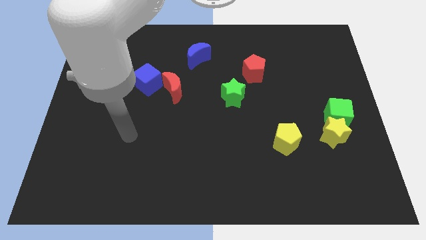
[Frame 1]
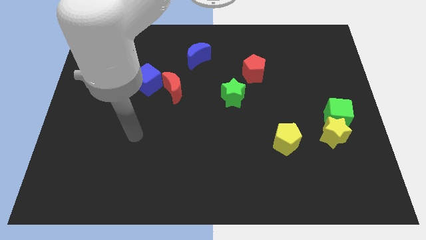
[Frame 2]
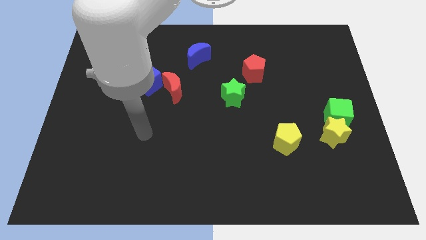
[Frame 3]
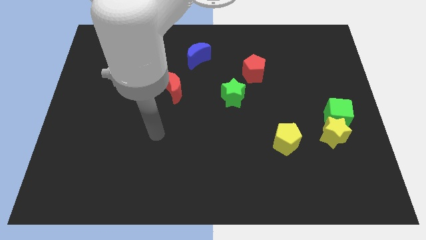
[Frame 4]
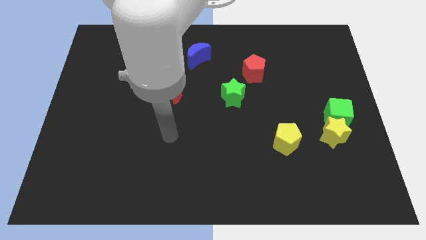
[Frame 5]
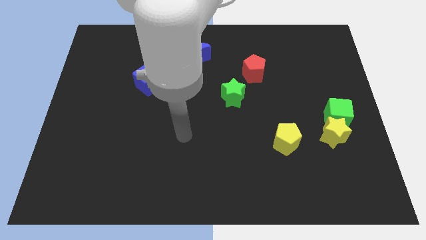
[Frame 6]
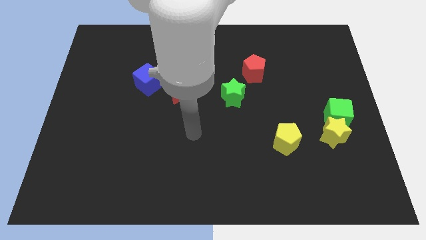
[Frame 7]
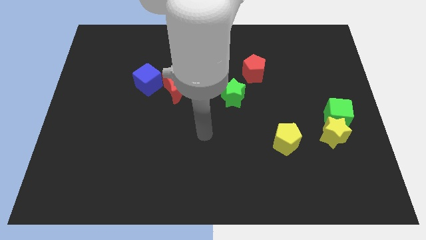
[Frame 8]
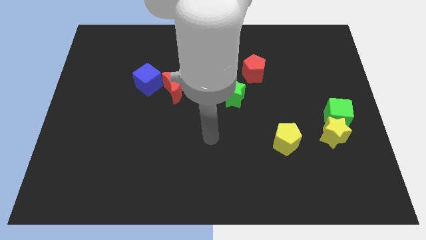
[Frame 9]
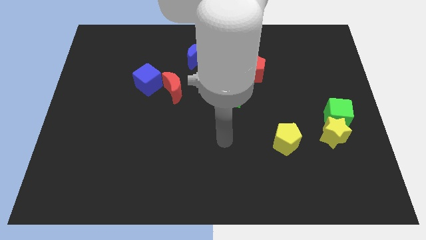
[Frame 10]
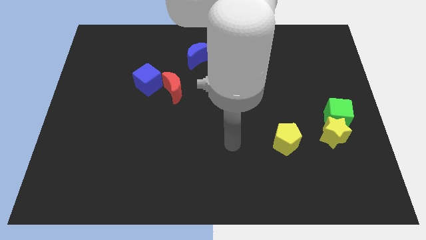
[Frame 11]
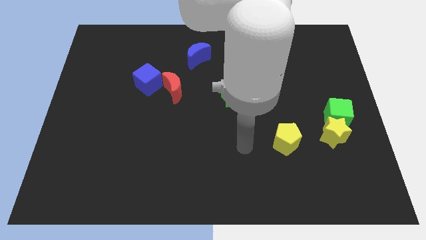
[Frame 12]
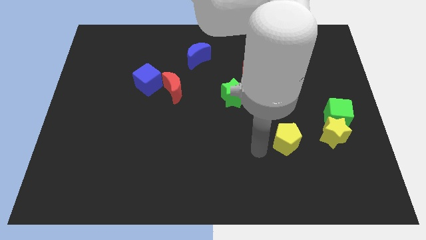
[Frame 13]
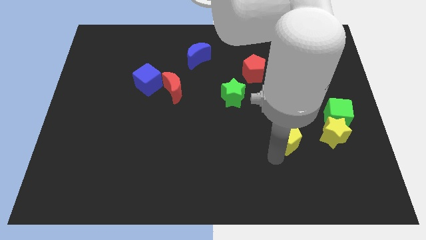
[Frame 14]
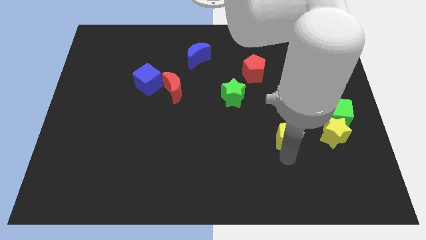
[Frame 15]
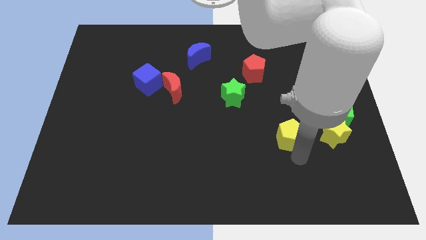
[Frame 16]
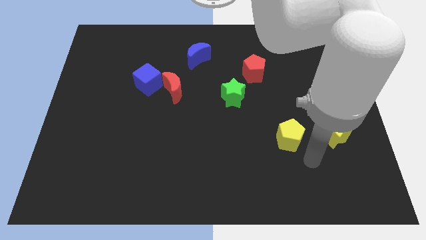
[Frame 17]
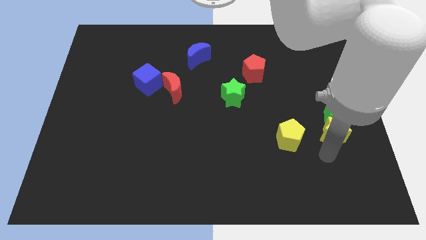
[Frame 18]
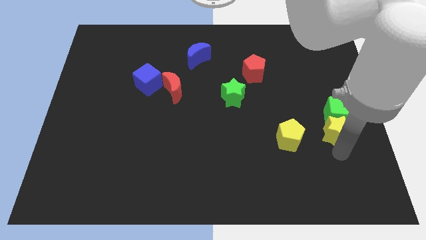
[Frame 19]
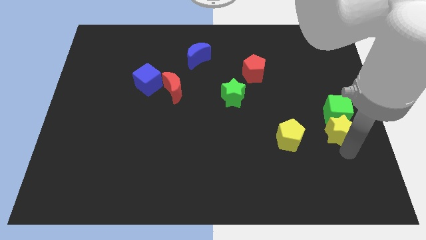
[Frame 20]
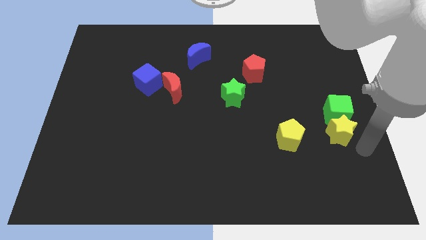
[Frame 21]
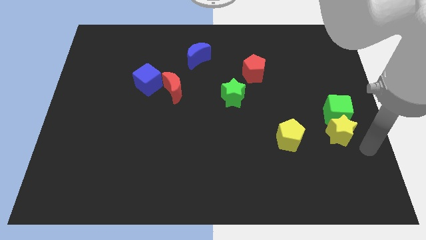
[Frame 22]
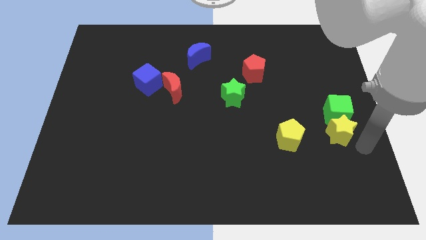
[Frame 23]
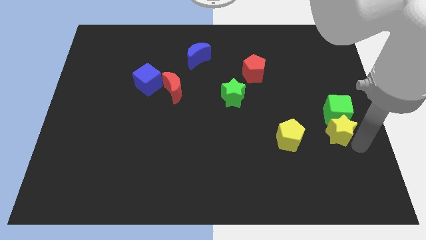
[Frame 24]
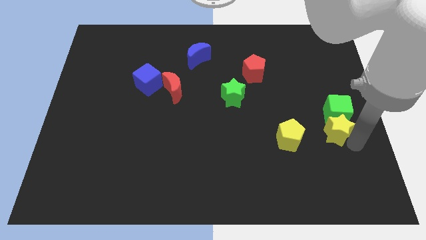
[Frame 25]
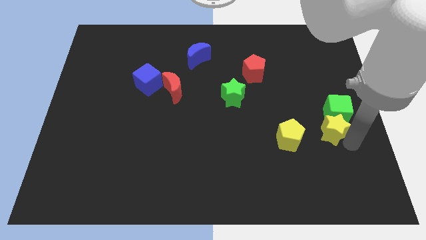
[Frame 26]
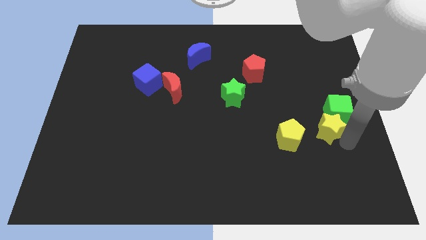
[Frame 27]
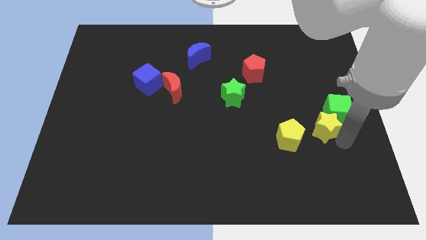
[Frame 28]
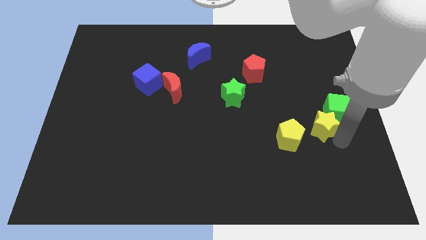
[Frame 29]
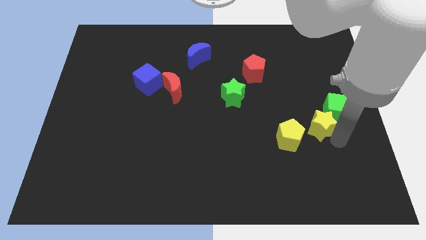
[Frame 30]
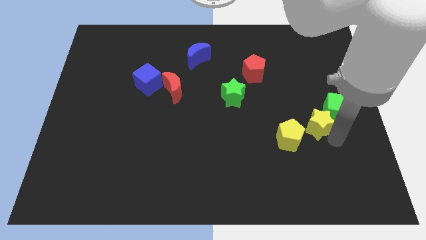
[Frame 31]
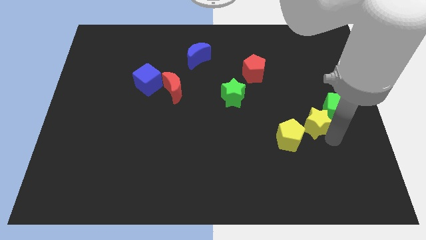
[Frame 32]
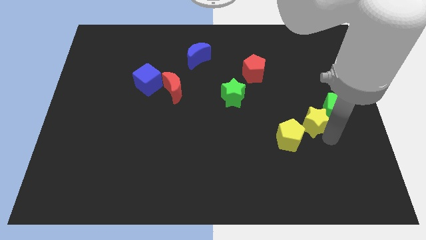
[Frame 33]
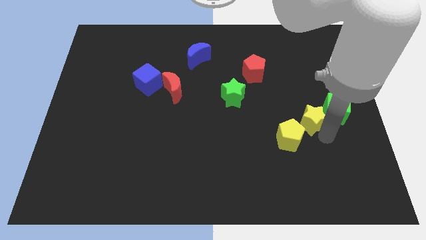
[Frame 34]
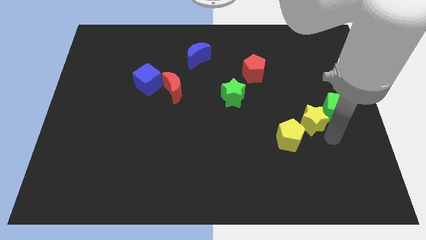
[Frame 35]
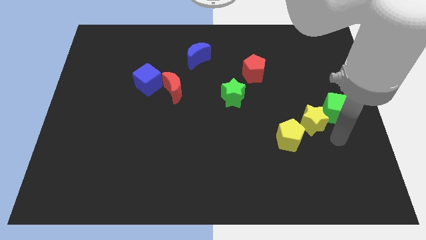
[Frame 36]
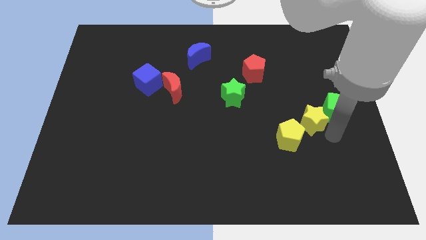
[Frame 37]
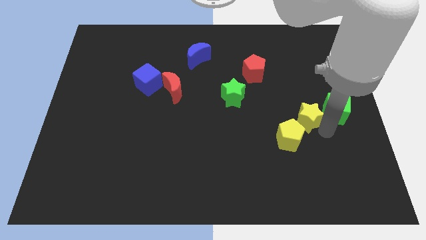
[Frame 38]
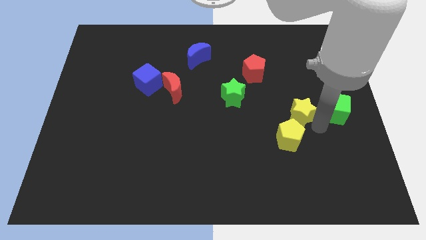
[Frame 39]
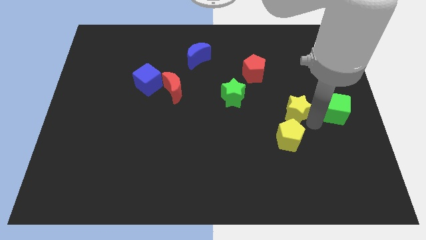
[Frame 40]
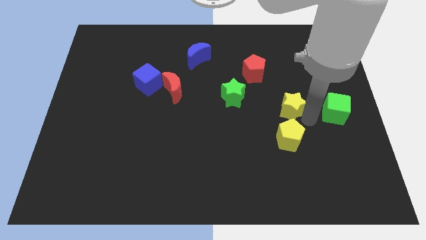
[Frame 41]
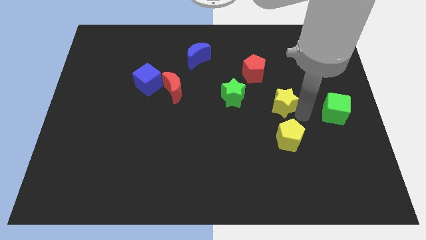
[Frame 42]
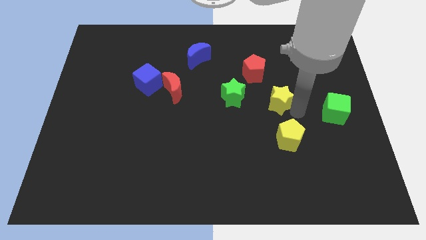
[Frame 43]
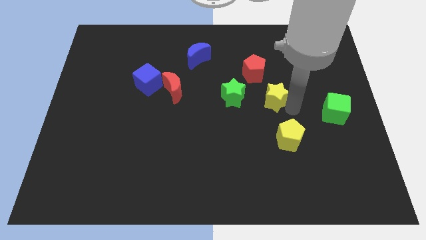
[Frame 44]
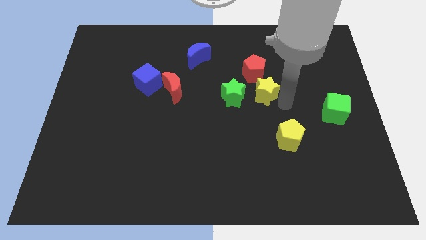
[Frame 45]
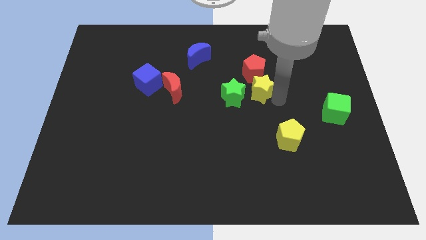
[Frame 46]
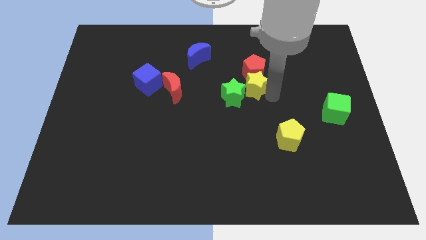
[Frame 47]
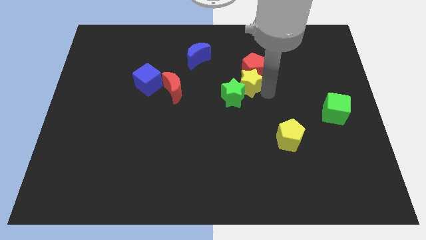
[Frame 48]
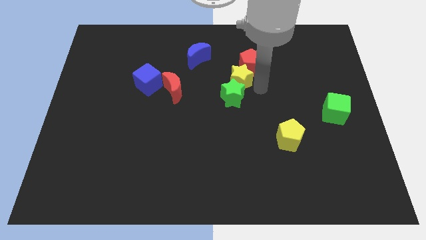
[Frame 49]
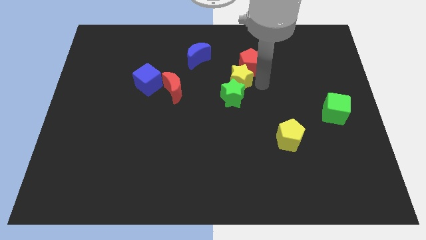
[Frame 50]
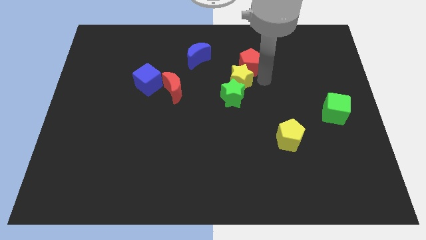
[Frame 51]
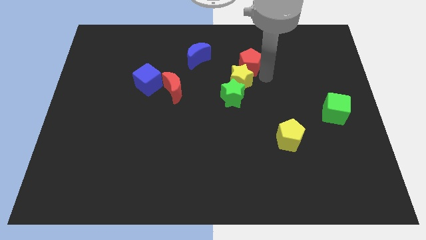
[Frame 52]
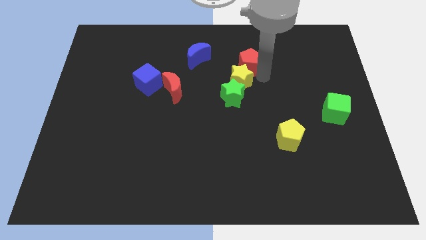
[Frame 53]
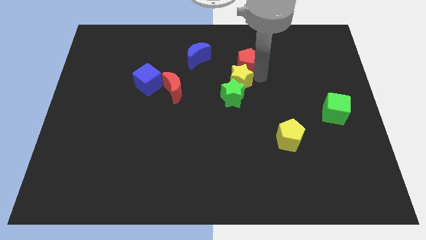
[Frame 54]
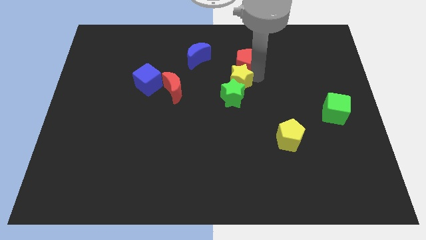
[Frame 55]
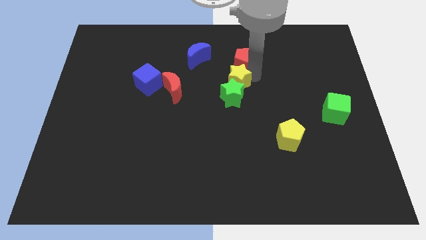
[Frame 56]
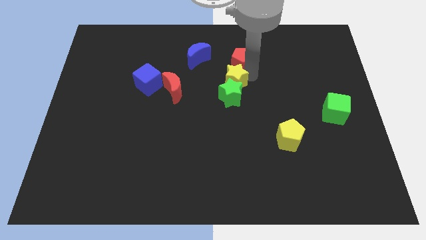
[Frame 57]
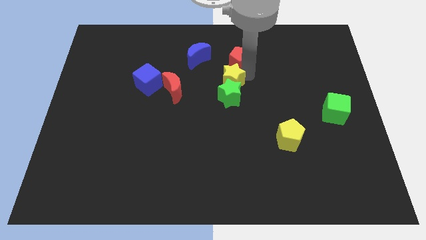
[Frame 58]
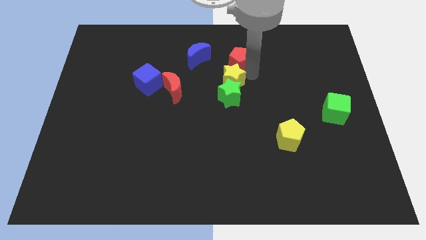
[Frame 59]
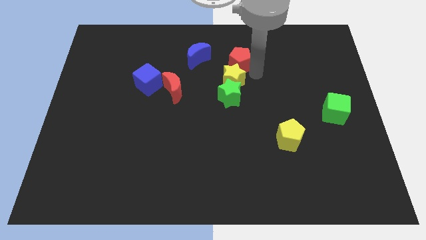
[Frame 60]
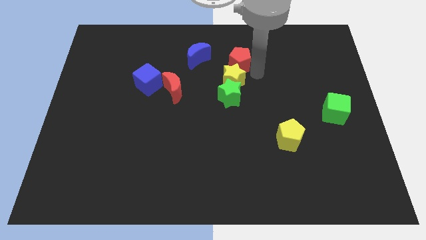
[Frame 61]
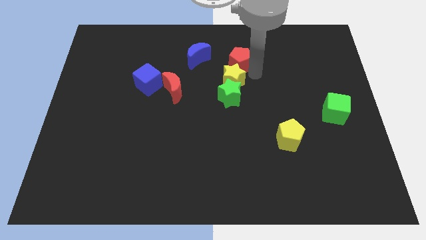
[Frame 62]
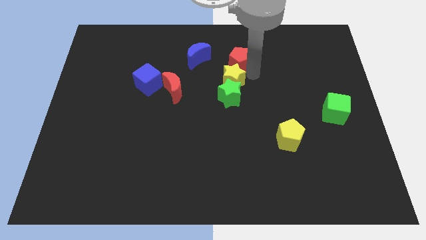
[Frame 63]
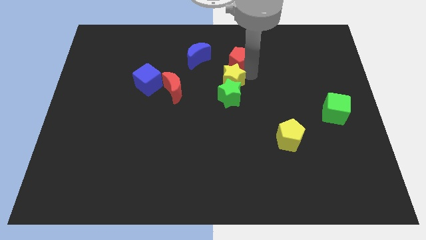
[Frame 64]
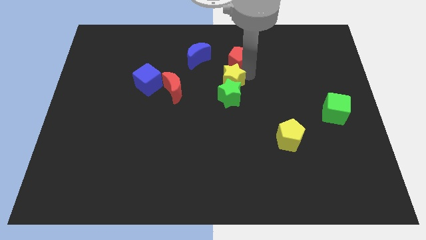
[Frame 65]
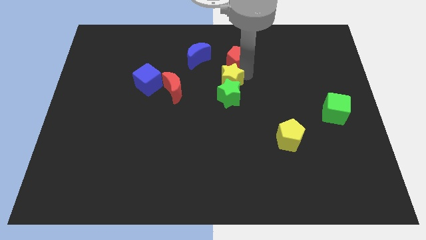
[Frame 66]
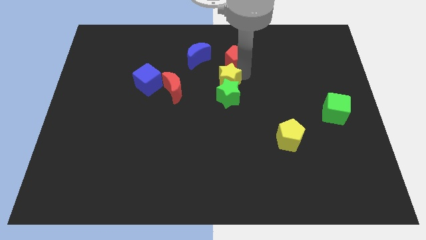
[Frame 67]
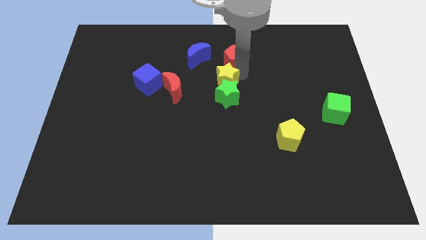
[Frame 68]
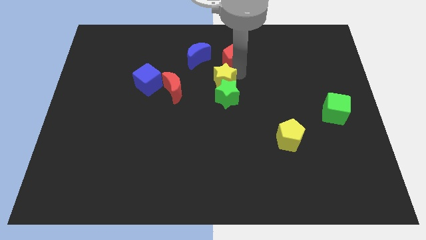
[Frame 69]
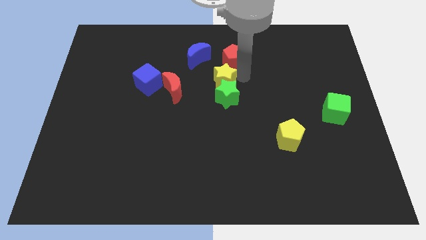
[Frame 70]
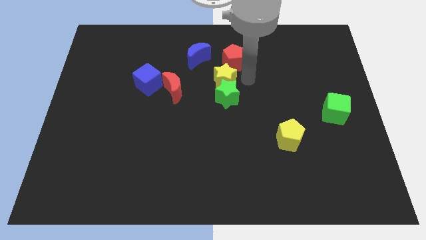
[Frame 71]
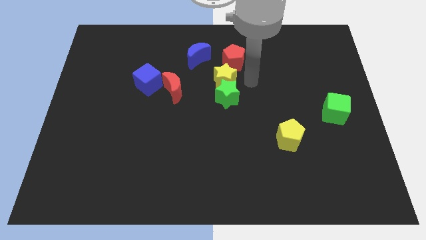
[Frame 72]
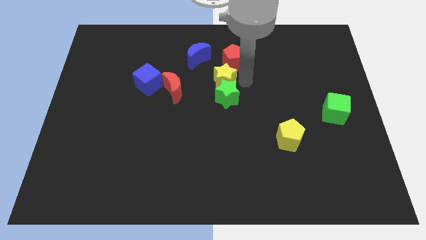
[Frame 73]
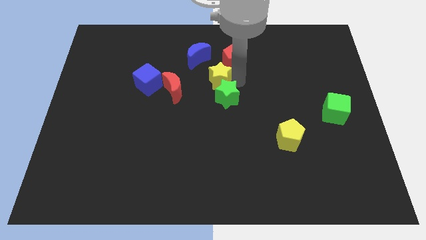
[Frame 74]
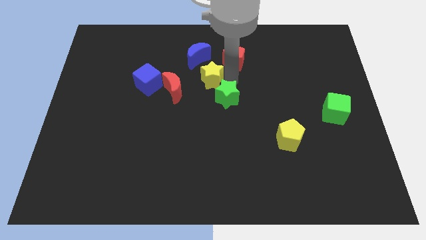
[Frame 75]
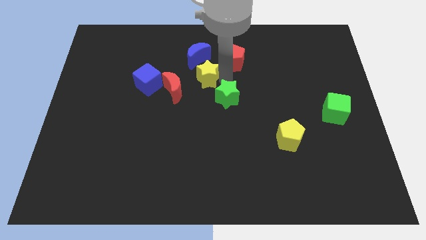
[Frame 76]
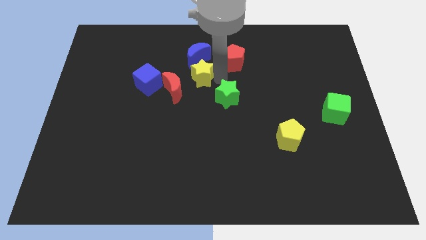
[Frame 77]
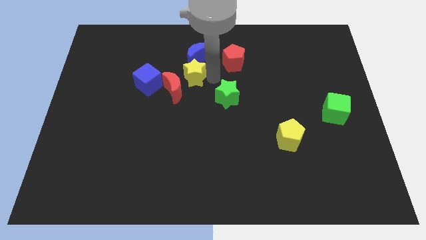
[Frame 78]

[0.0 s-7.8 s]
move the yellow star to the bottom left of the blue moon
